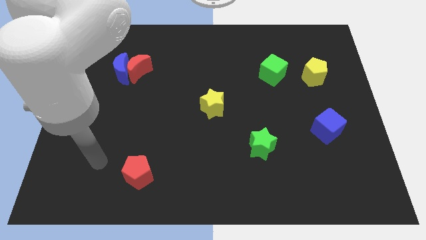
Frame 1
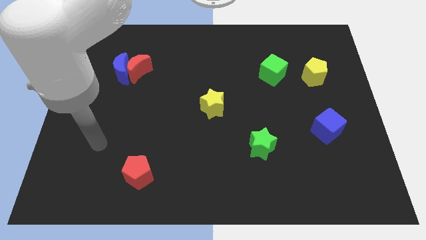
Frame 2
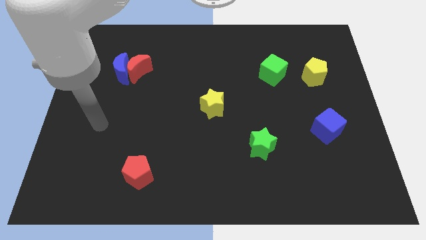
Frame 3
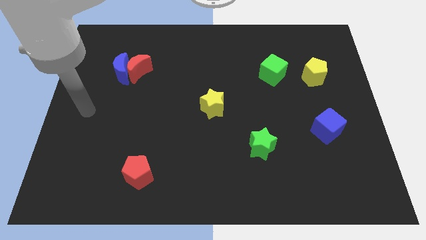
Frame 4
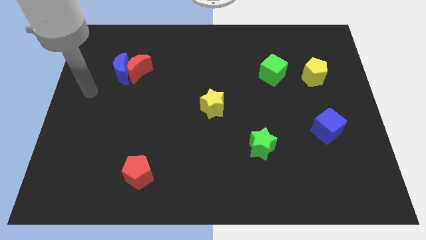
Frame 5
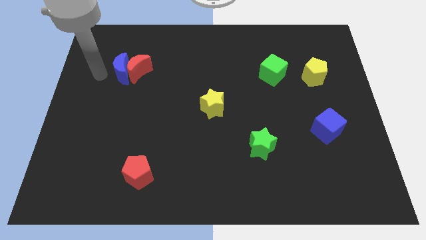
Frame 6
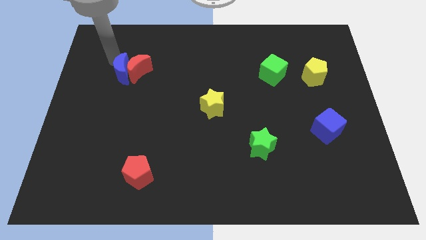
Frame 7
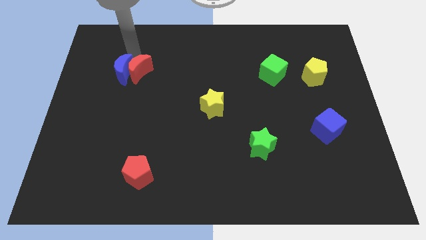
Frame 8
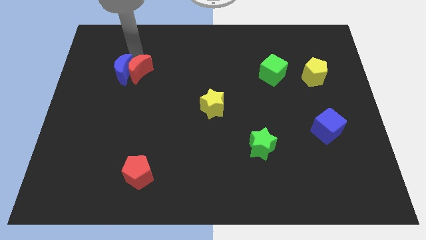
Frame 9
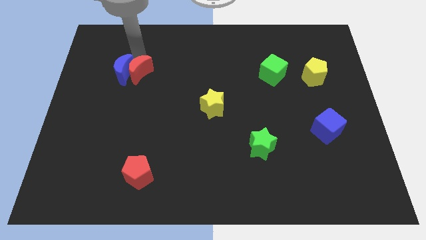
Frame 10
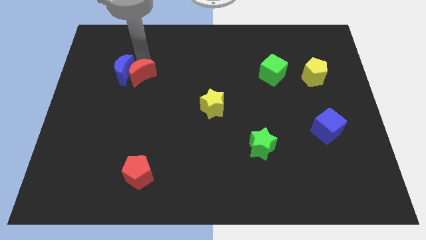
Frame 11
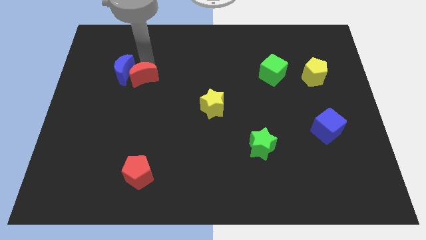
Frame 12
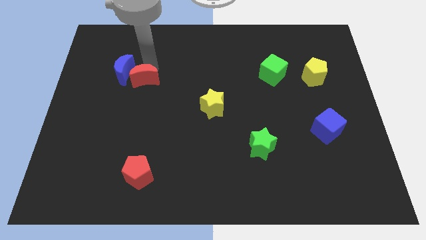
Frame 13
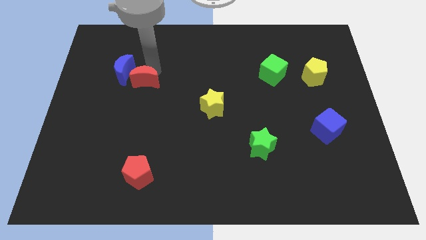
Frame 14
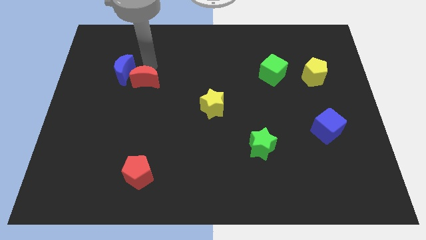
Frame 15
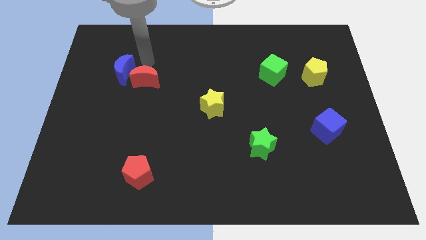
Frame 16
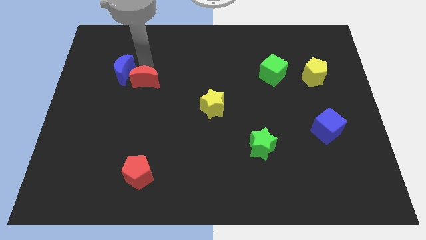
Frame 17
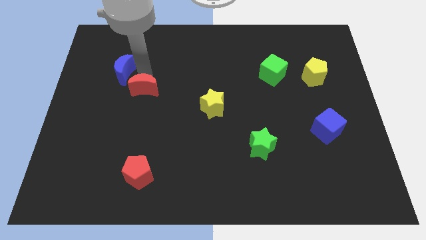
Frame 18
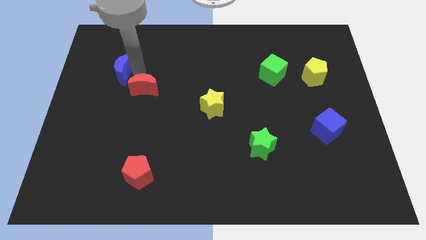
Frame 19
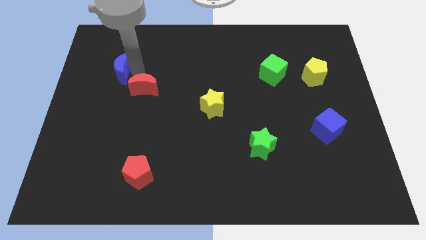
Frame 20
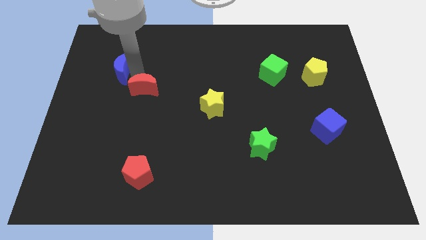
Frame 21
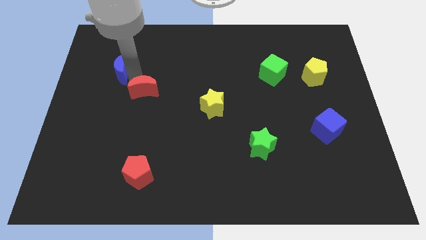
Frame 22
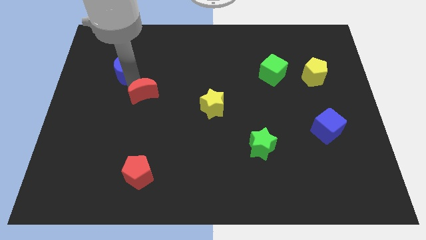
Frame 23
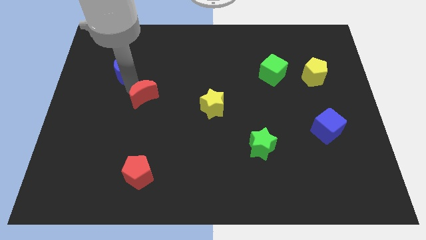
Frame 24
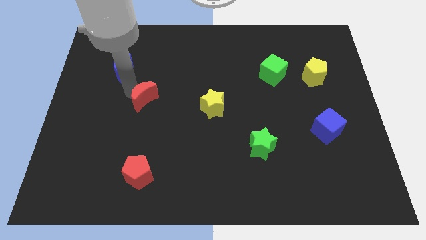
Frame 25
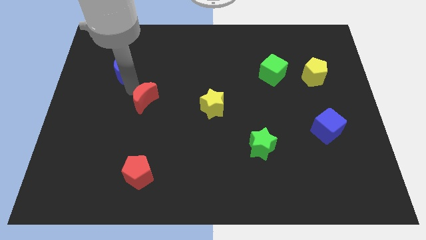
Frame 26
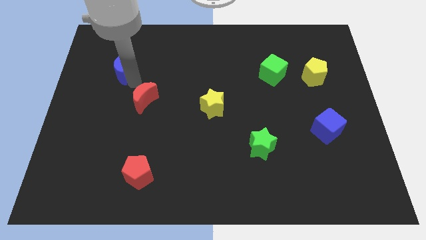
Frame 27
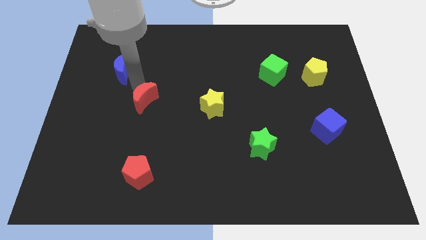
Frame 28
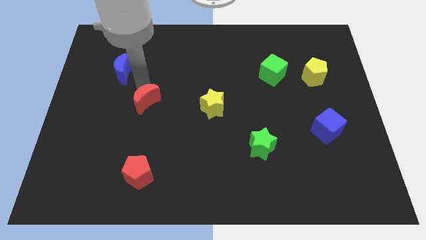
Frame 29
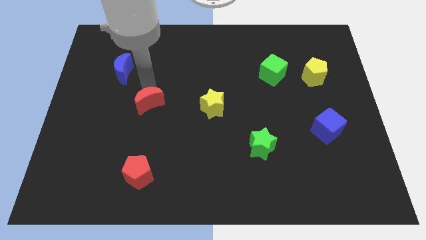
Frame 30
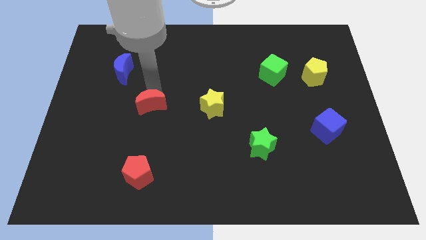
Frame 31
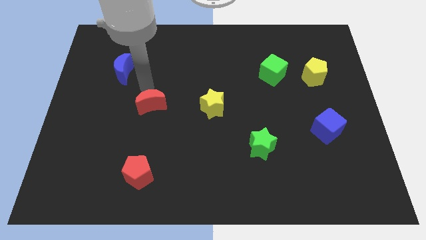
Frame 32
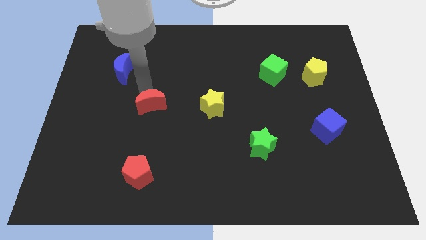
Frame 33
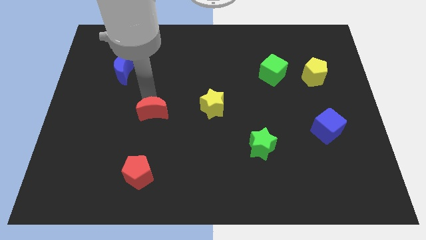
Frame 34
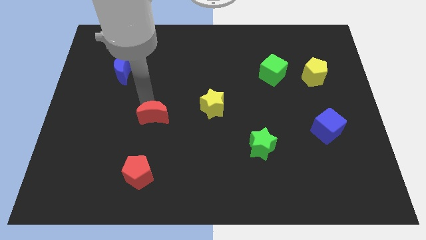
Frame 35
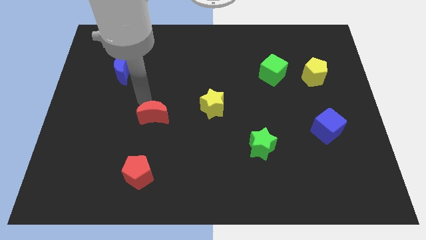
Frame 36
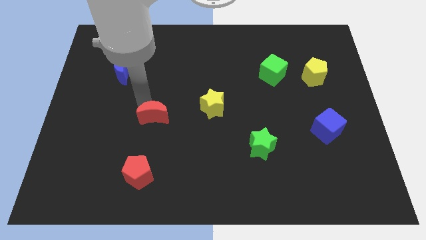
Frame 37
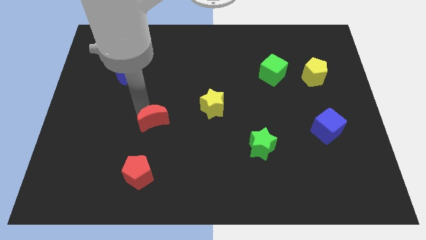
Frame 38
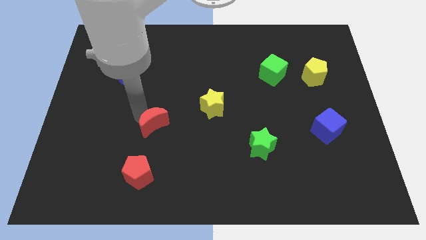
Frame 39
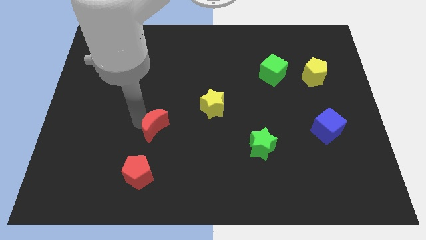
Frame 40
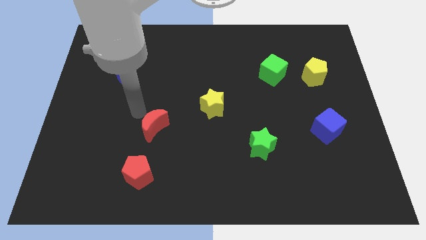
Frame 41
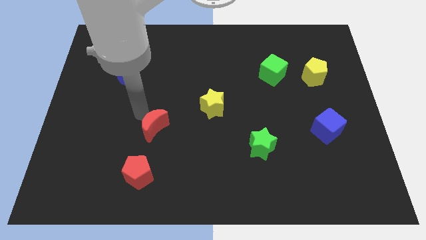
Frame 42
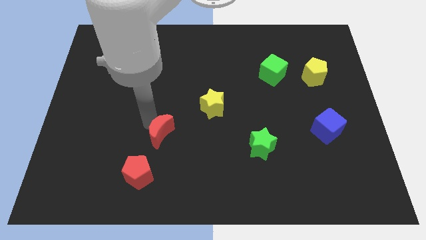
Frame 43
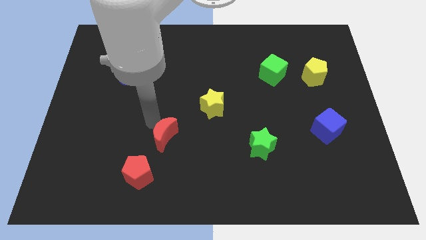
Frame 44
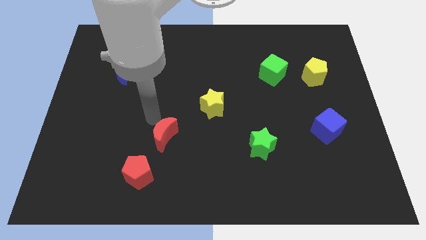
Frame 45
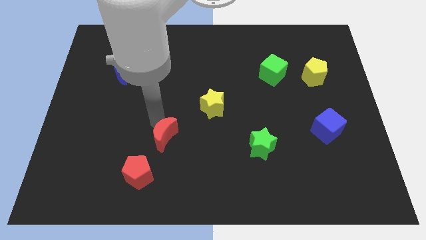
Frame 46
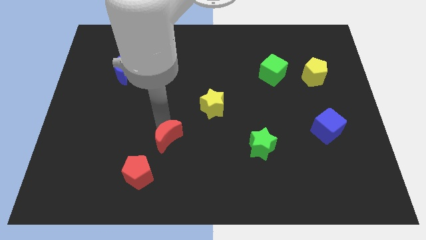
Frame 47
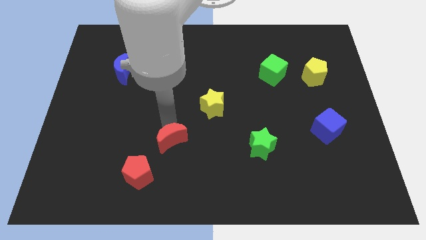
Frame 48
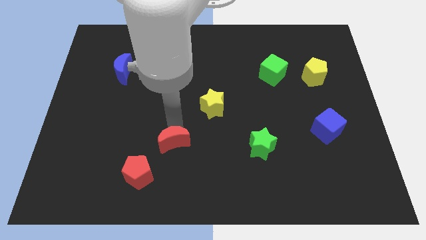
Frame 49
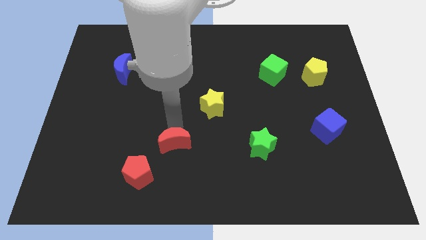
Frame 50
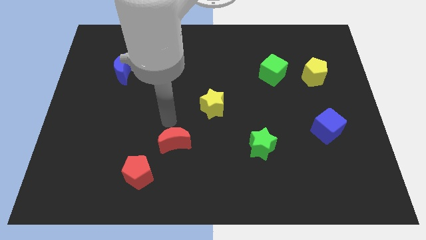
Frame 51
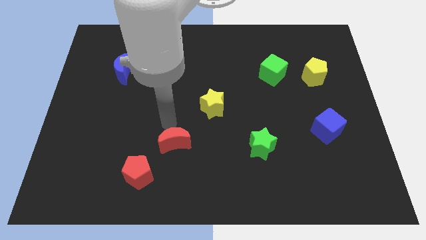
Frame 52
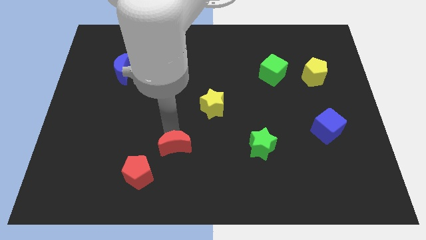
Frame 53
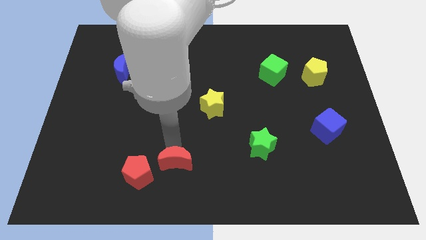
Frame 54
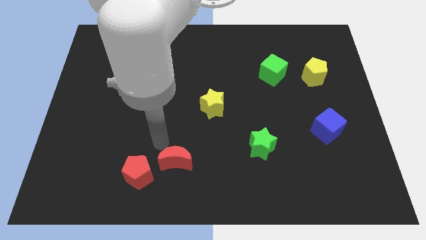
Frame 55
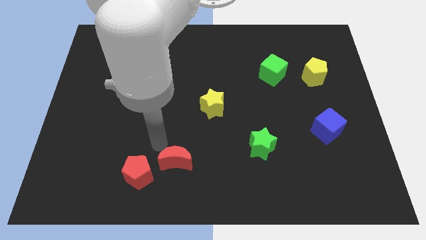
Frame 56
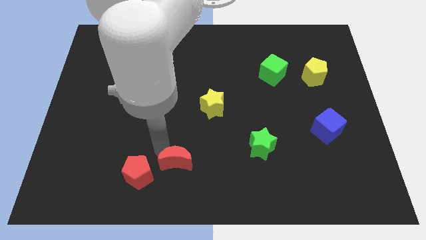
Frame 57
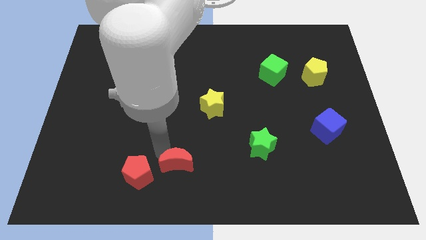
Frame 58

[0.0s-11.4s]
put the red moon to the bottom
